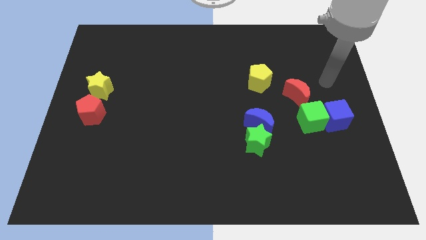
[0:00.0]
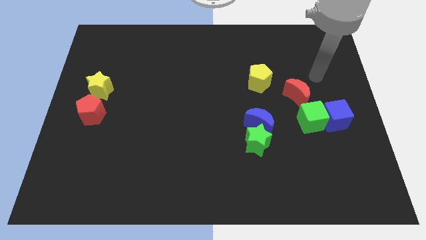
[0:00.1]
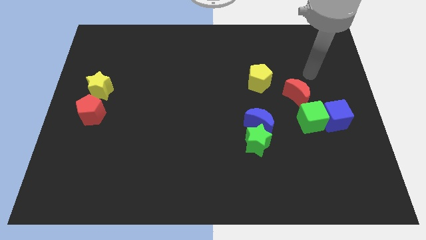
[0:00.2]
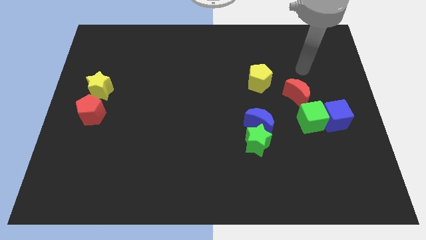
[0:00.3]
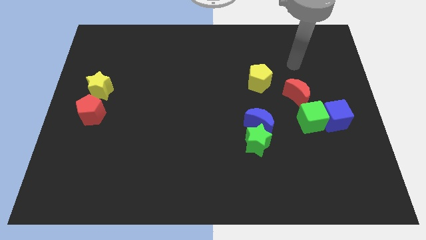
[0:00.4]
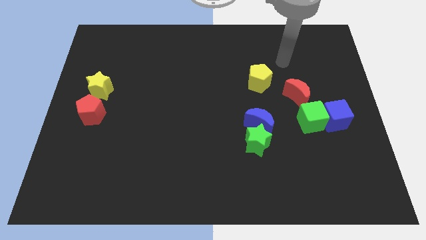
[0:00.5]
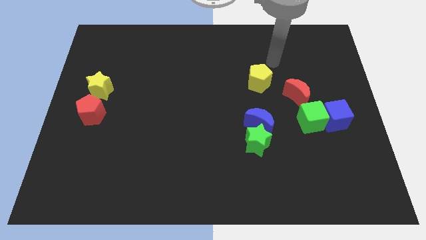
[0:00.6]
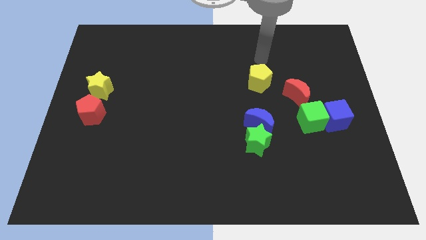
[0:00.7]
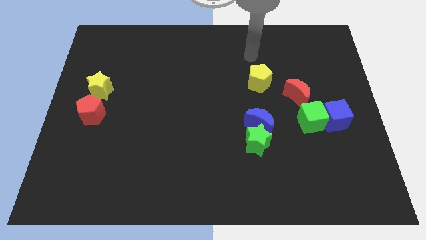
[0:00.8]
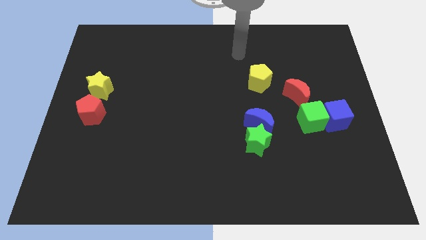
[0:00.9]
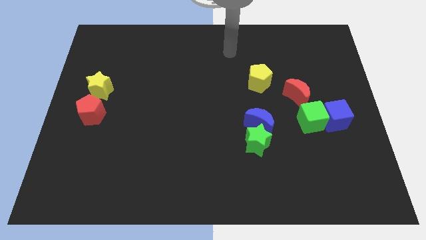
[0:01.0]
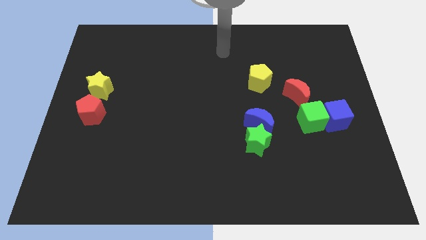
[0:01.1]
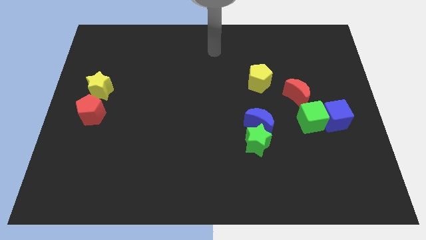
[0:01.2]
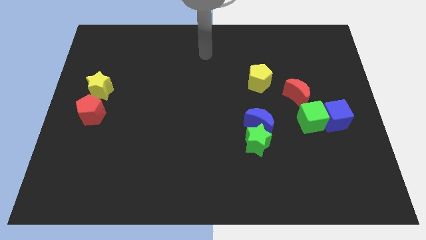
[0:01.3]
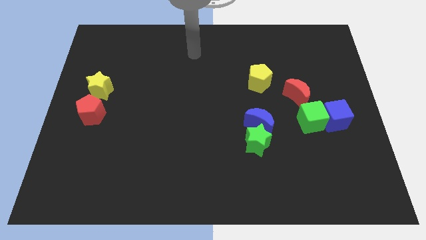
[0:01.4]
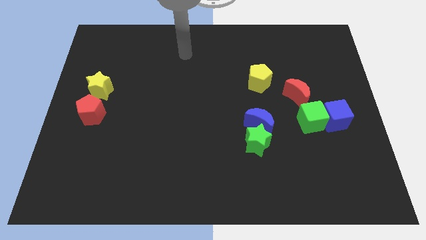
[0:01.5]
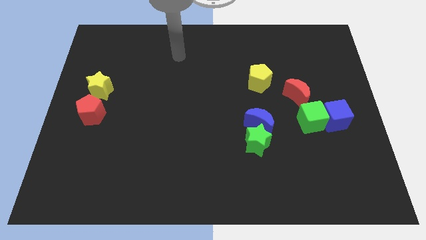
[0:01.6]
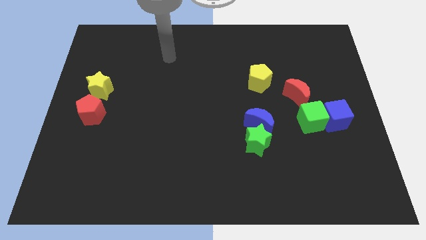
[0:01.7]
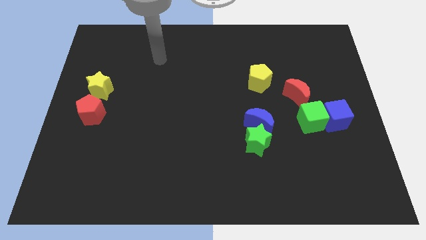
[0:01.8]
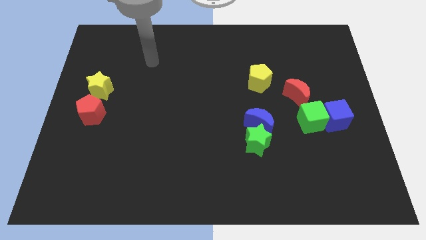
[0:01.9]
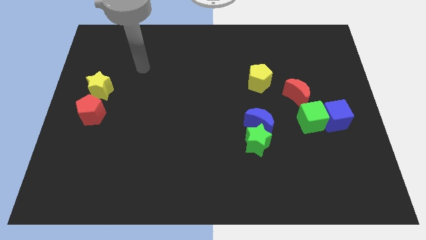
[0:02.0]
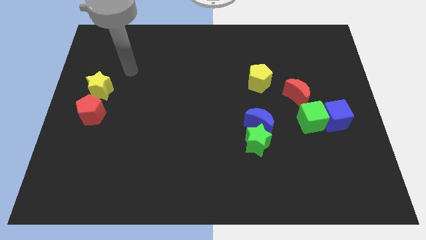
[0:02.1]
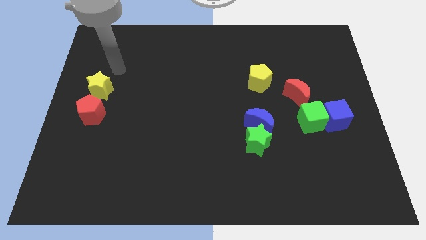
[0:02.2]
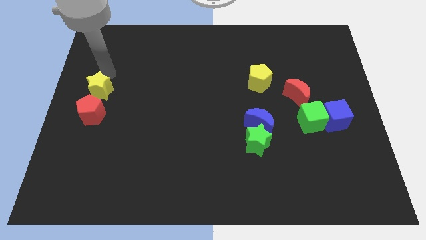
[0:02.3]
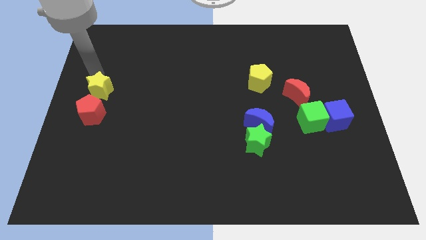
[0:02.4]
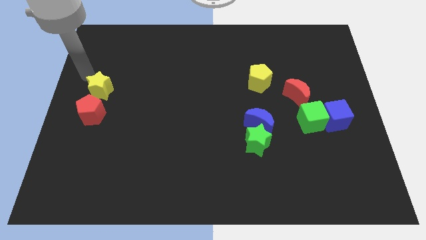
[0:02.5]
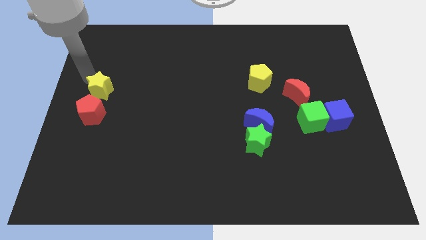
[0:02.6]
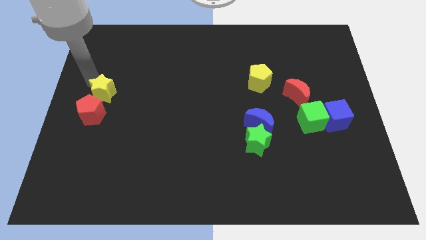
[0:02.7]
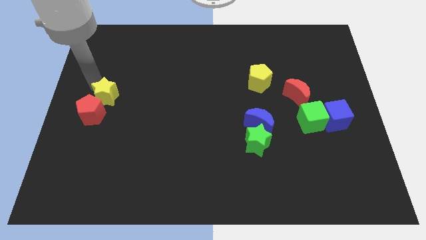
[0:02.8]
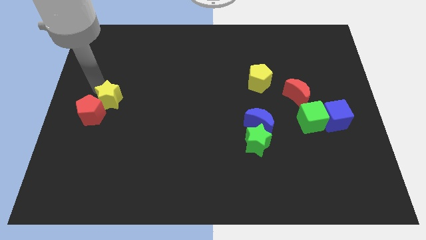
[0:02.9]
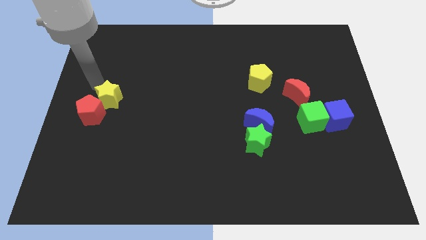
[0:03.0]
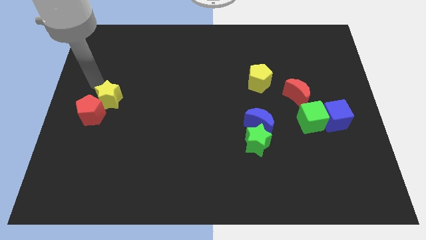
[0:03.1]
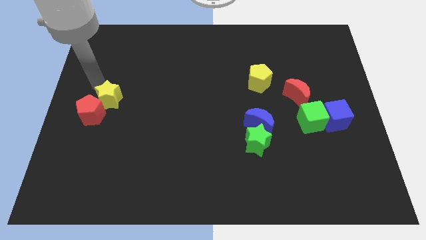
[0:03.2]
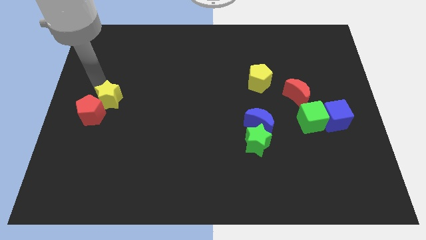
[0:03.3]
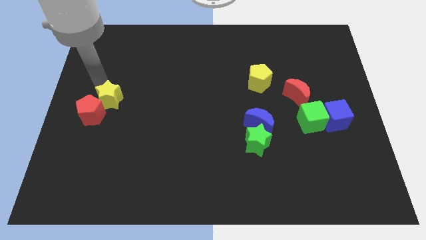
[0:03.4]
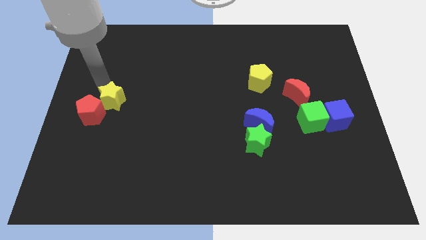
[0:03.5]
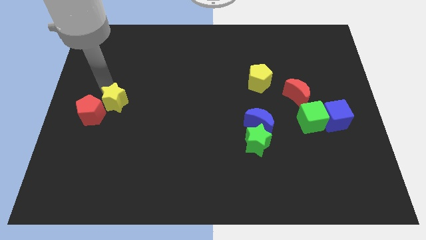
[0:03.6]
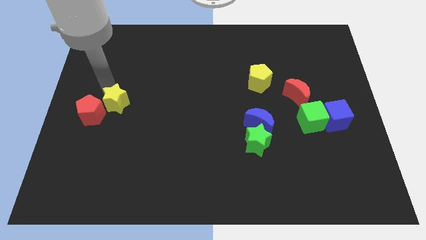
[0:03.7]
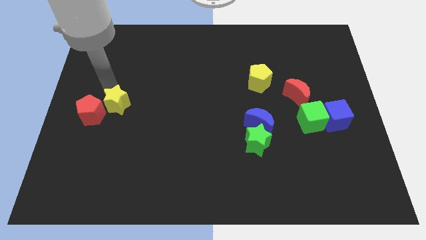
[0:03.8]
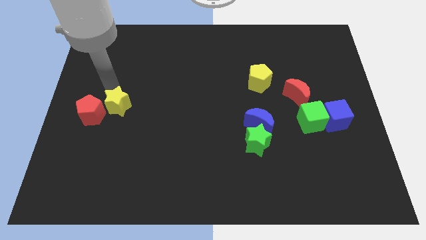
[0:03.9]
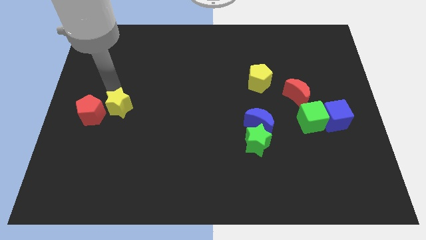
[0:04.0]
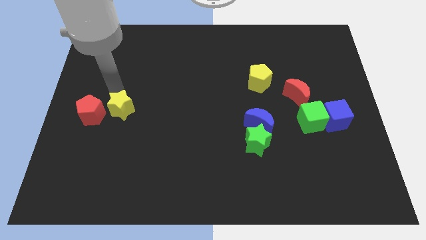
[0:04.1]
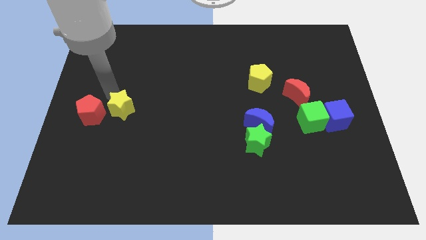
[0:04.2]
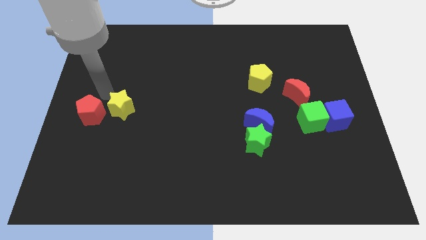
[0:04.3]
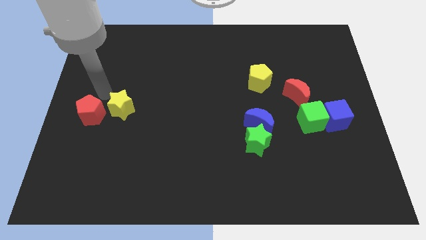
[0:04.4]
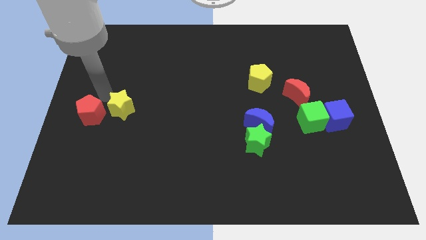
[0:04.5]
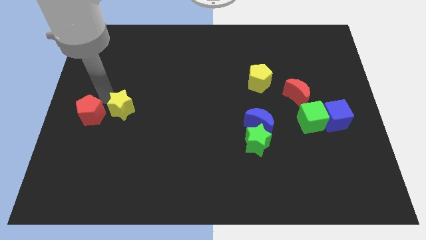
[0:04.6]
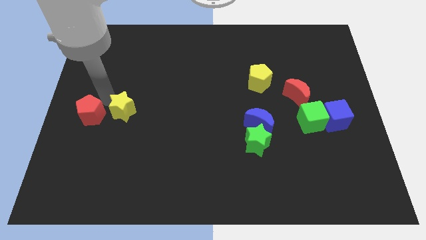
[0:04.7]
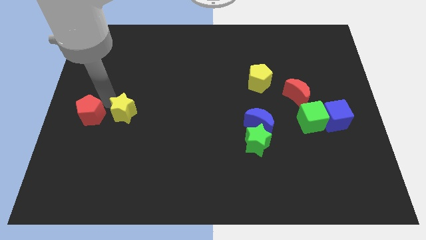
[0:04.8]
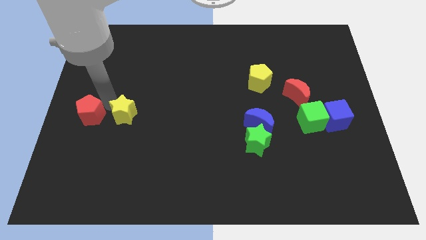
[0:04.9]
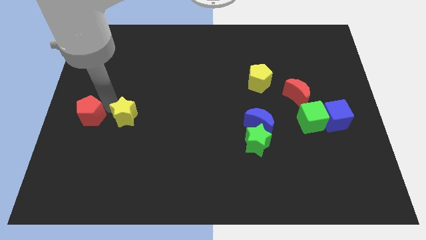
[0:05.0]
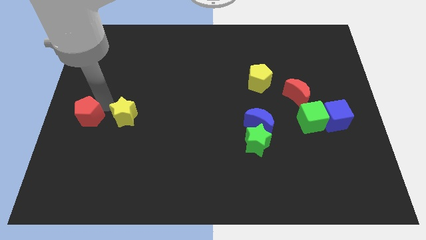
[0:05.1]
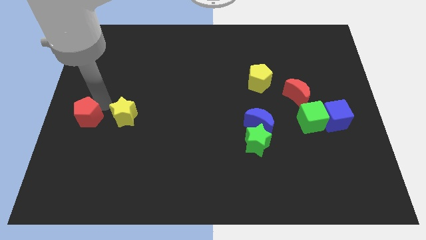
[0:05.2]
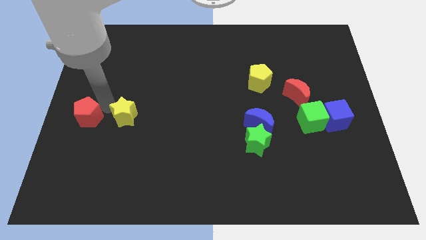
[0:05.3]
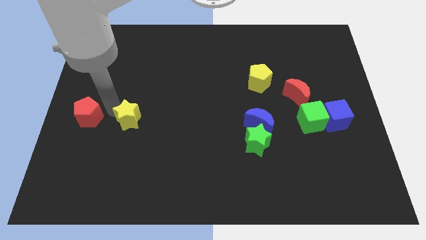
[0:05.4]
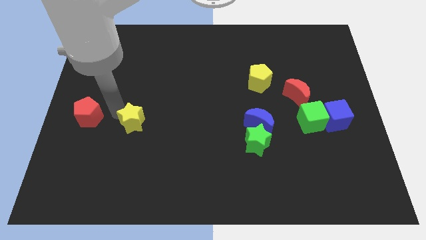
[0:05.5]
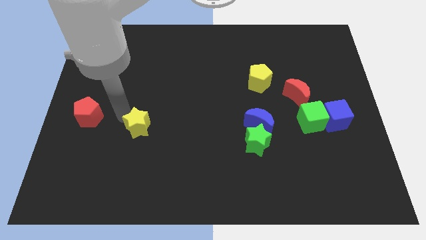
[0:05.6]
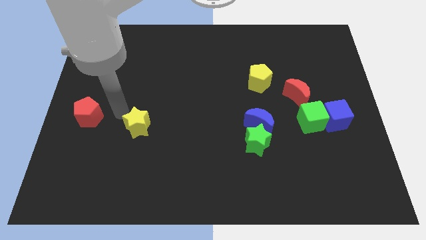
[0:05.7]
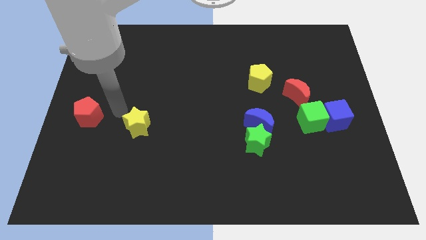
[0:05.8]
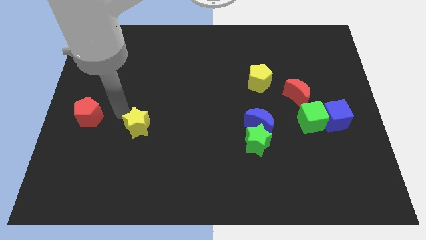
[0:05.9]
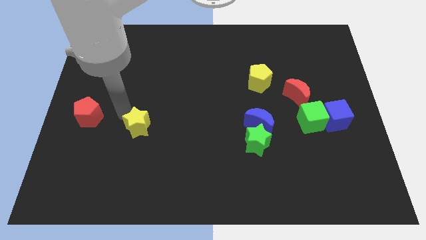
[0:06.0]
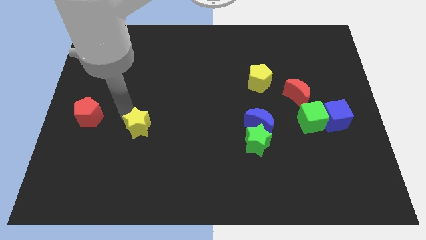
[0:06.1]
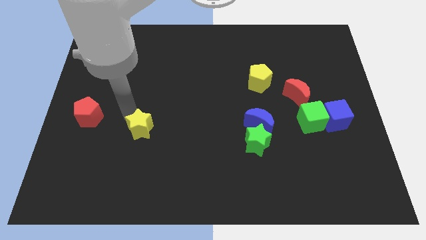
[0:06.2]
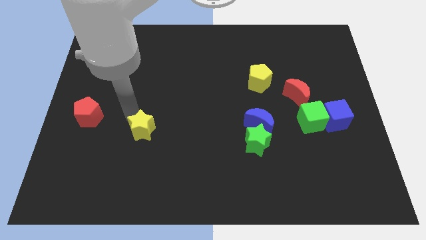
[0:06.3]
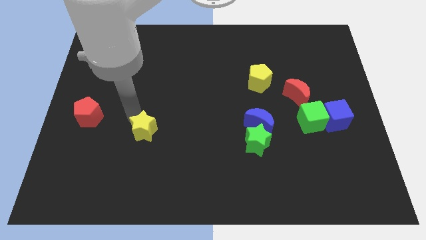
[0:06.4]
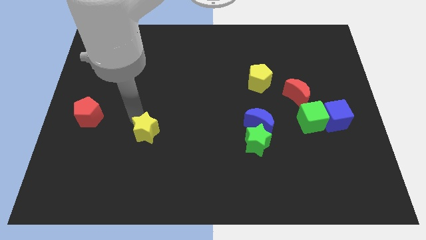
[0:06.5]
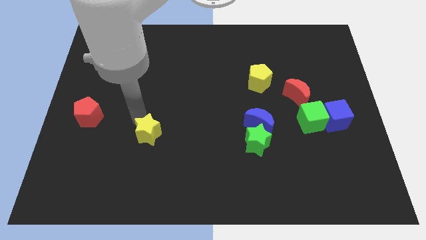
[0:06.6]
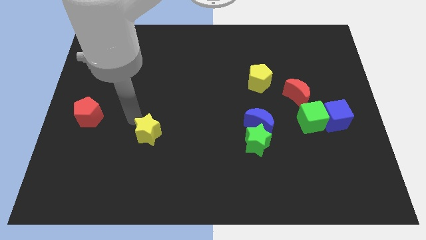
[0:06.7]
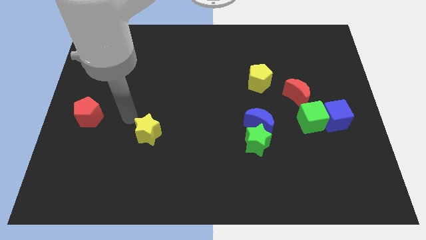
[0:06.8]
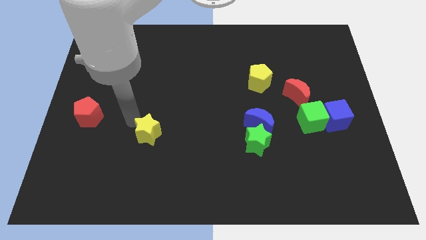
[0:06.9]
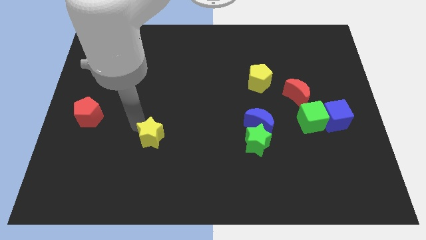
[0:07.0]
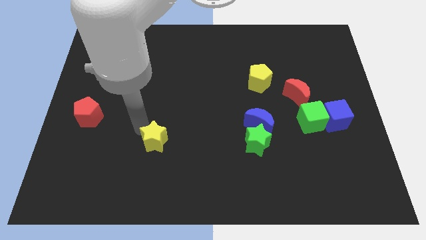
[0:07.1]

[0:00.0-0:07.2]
push the yellow star down and then to the right

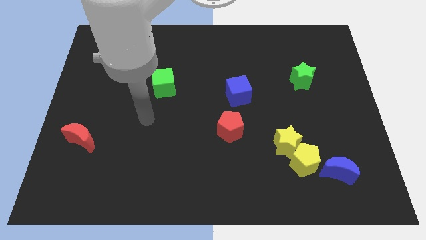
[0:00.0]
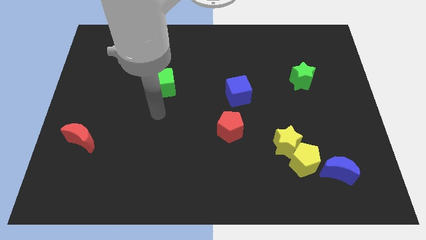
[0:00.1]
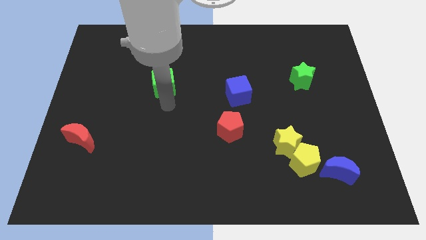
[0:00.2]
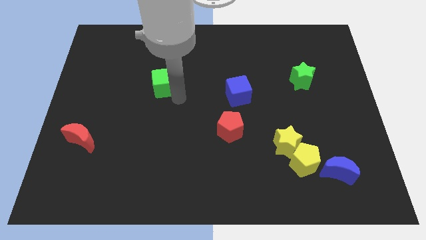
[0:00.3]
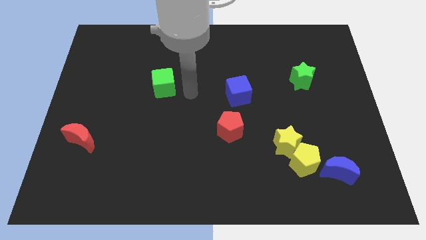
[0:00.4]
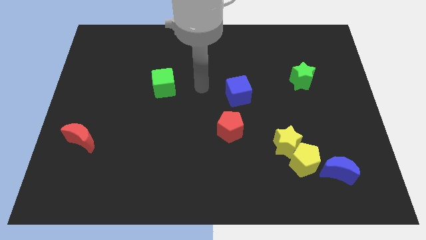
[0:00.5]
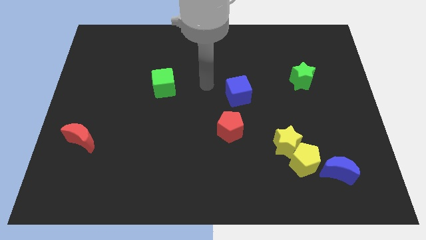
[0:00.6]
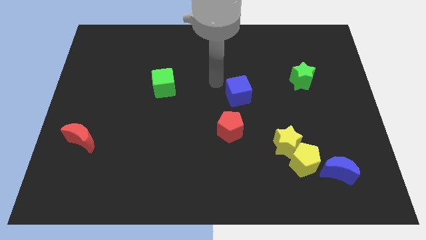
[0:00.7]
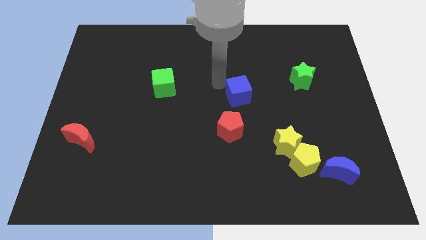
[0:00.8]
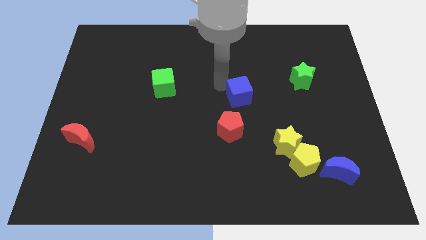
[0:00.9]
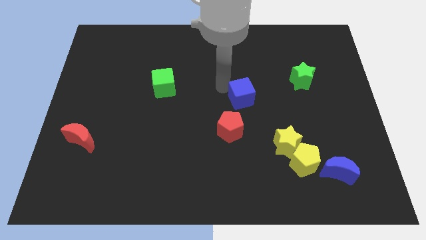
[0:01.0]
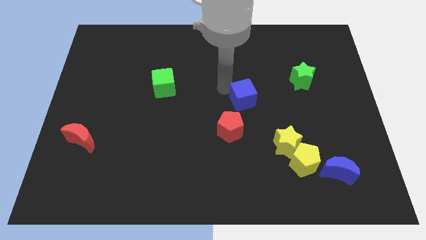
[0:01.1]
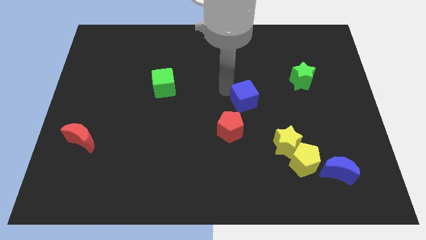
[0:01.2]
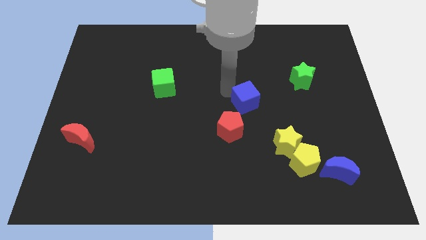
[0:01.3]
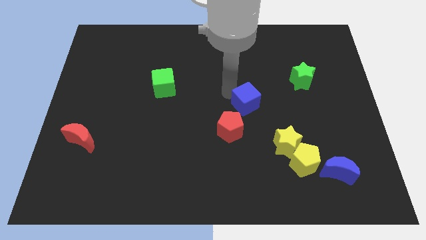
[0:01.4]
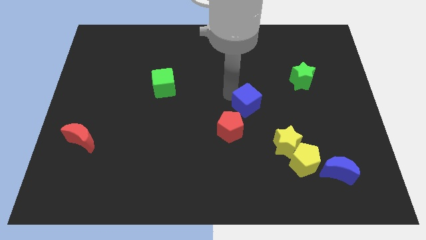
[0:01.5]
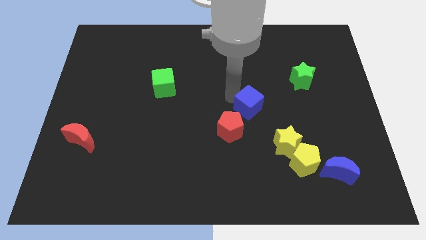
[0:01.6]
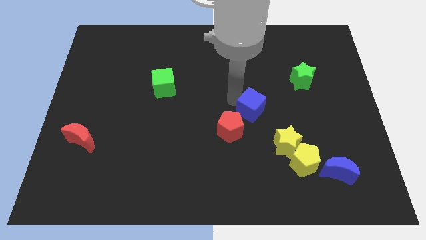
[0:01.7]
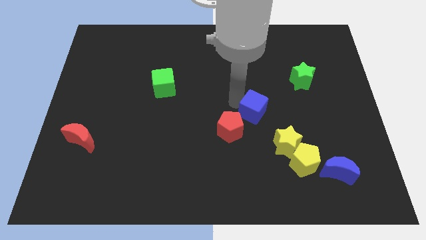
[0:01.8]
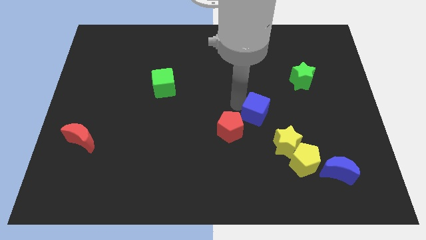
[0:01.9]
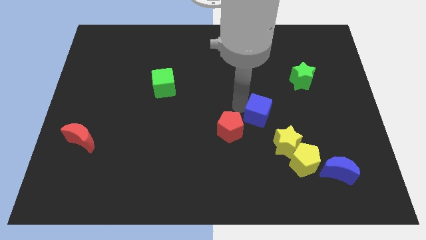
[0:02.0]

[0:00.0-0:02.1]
push the blue cube a little downwards and then to the right
